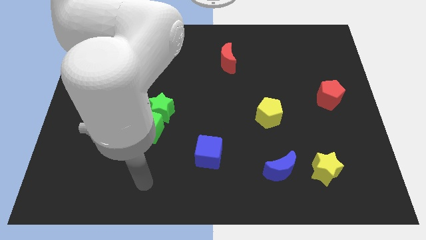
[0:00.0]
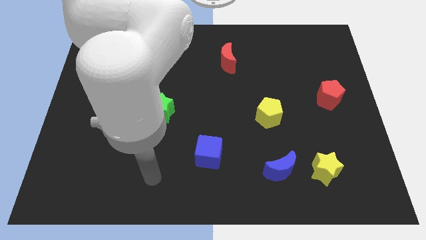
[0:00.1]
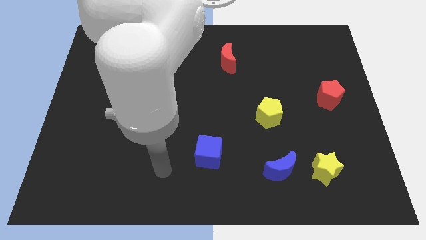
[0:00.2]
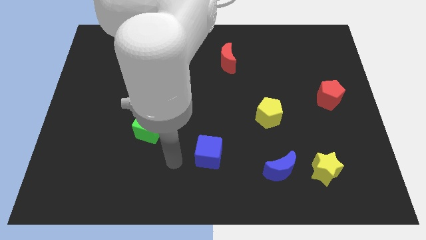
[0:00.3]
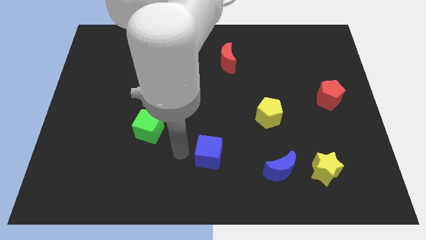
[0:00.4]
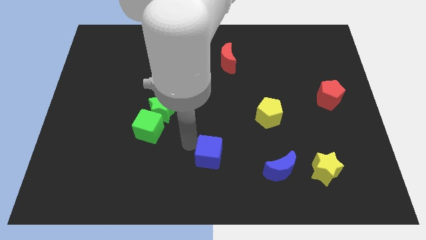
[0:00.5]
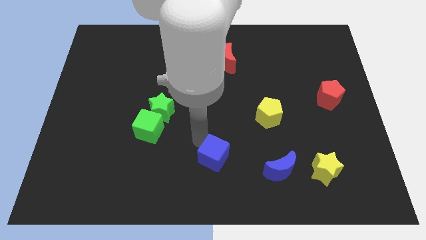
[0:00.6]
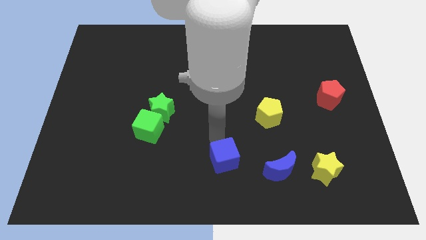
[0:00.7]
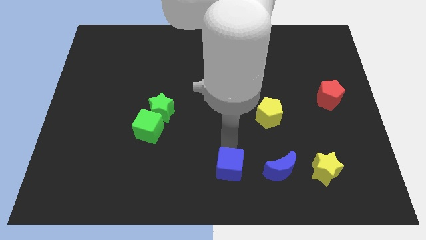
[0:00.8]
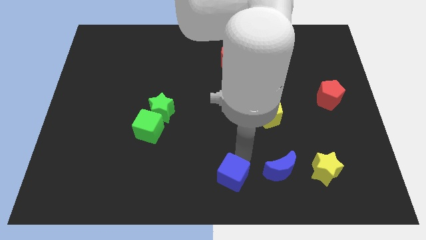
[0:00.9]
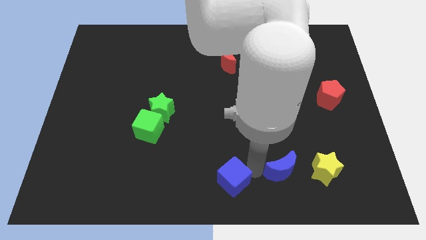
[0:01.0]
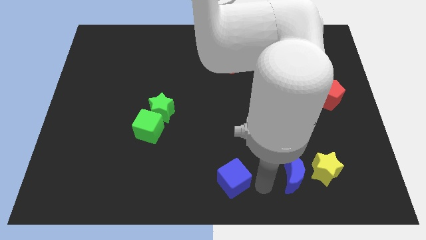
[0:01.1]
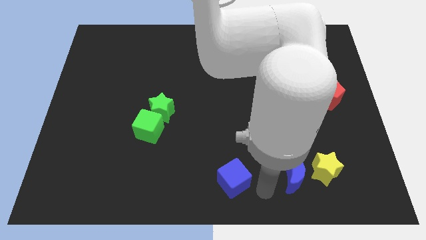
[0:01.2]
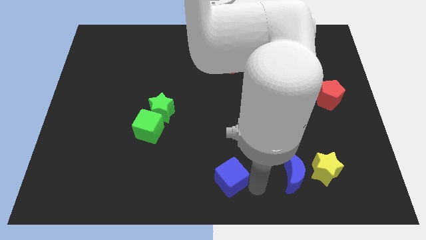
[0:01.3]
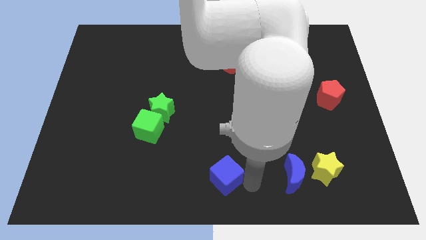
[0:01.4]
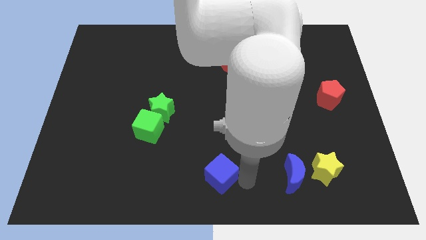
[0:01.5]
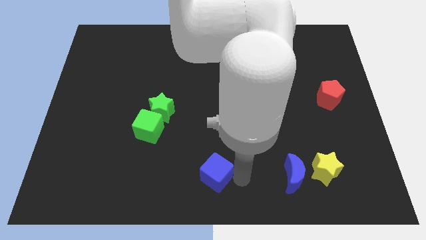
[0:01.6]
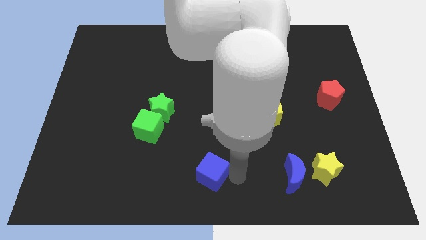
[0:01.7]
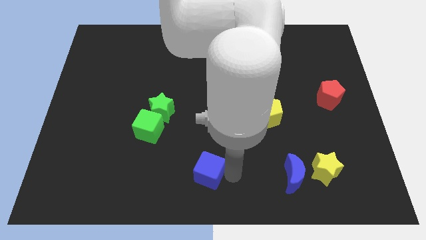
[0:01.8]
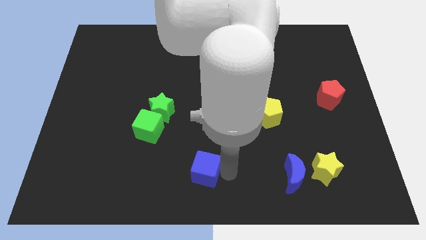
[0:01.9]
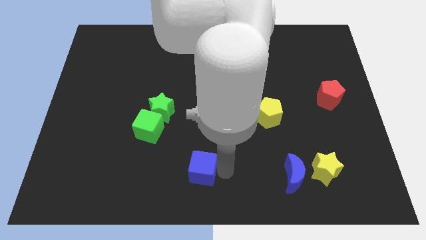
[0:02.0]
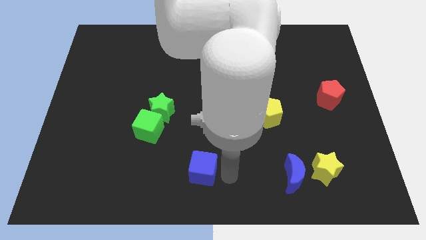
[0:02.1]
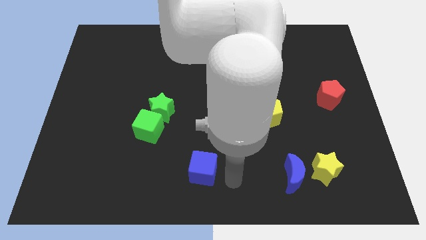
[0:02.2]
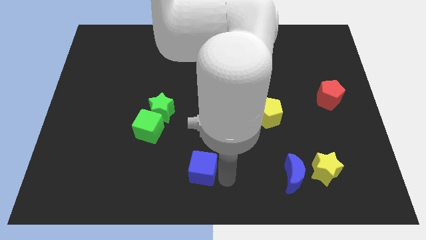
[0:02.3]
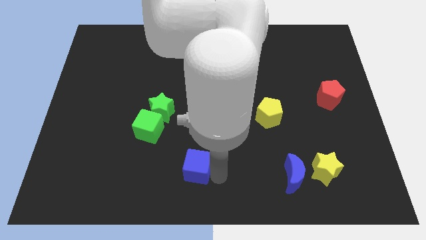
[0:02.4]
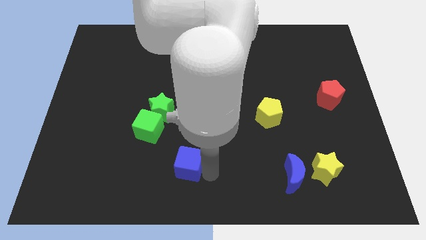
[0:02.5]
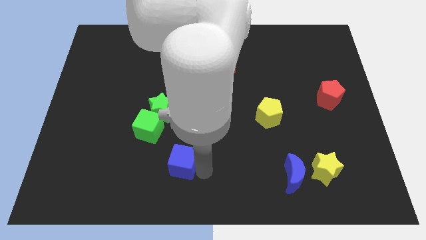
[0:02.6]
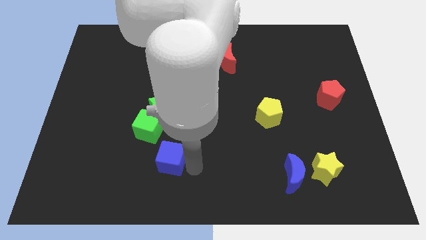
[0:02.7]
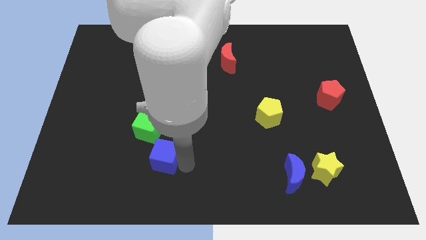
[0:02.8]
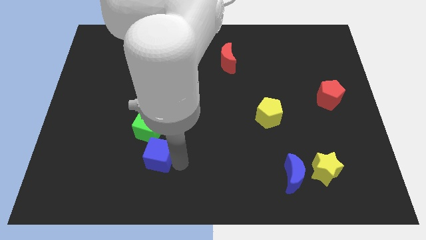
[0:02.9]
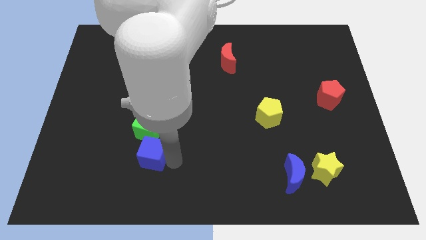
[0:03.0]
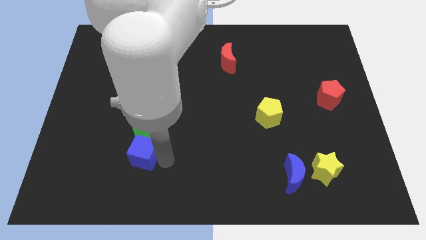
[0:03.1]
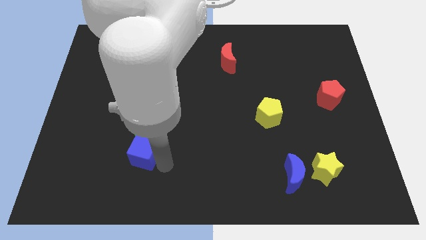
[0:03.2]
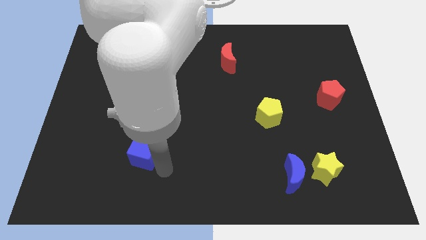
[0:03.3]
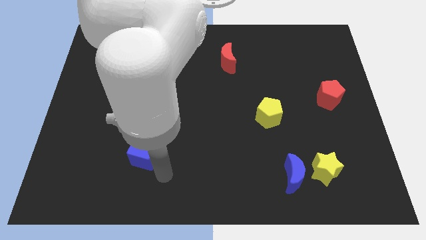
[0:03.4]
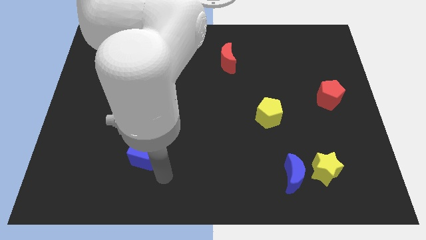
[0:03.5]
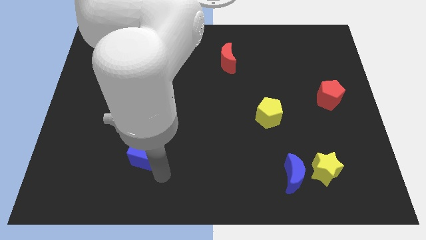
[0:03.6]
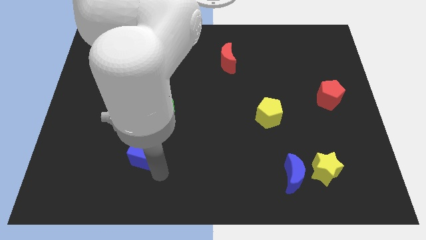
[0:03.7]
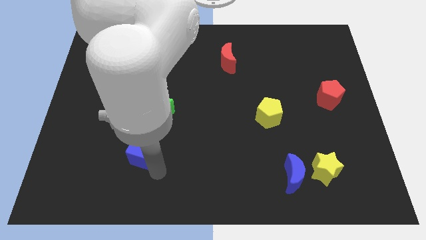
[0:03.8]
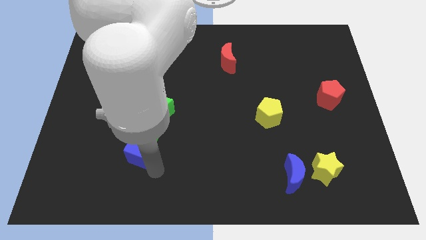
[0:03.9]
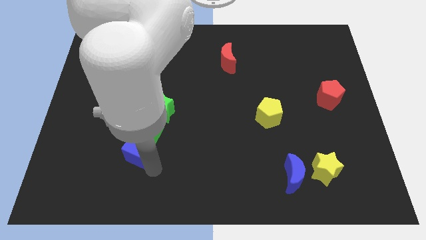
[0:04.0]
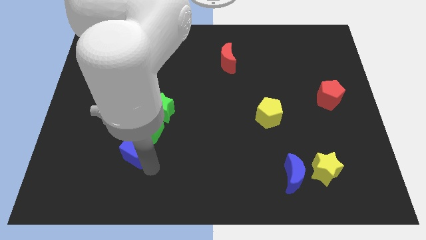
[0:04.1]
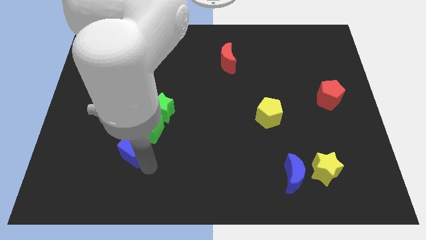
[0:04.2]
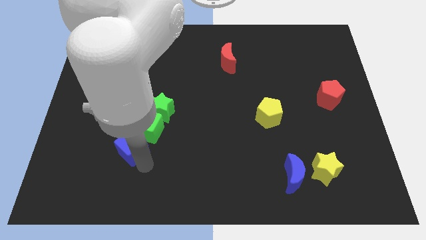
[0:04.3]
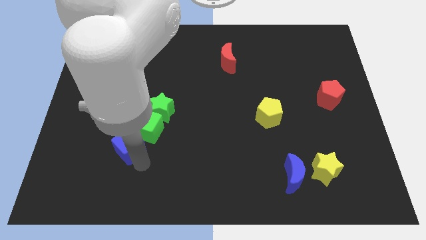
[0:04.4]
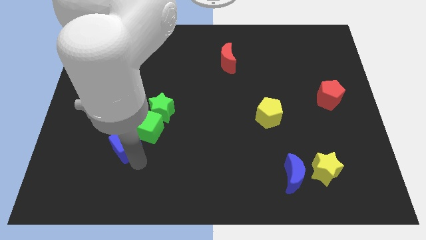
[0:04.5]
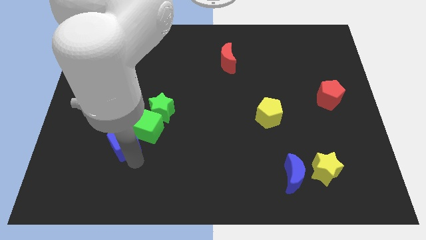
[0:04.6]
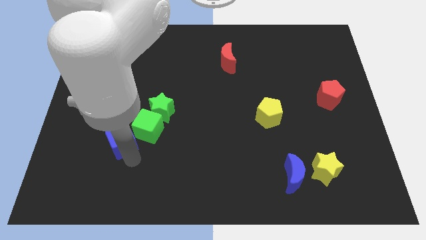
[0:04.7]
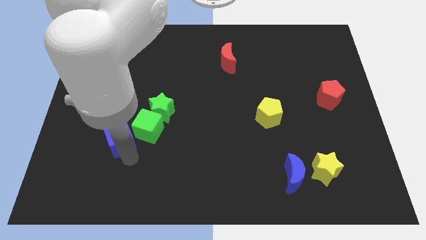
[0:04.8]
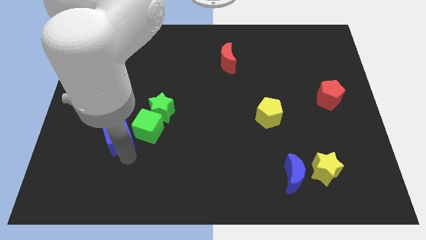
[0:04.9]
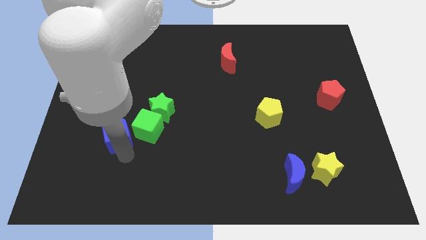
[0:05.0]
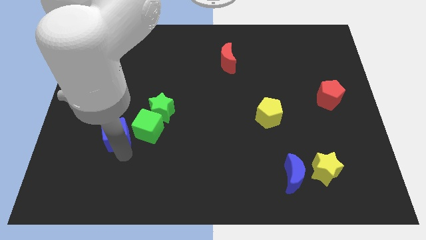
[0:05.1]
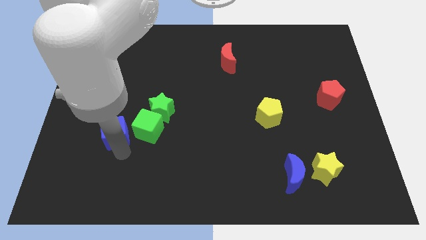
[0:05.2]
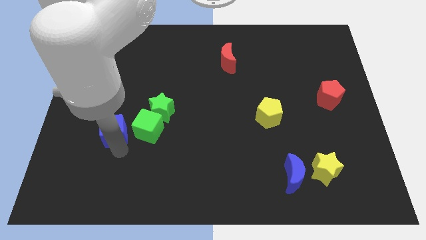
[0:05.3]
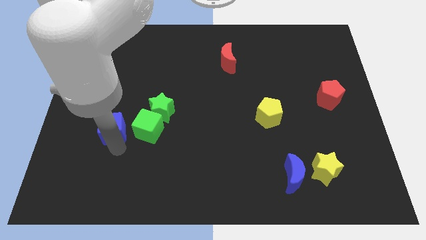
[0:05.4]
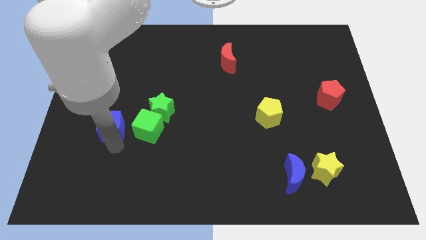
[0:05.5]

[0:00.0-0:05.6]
slide the blue cube left of the green star

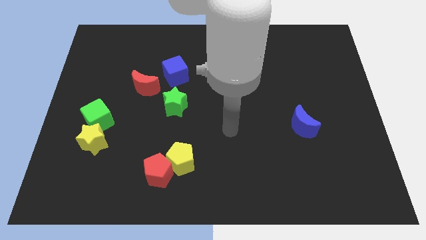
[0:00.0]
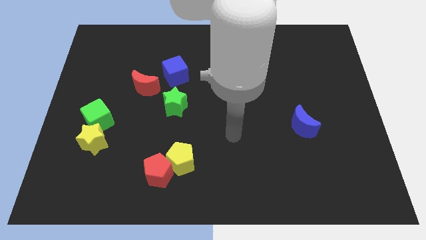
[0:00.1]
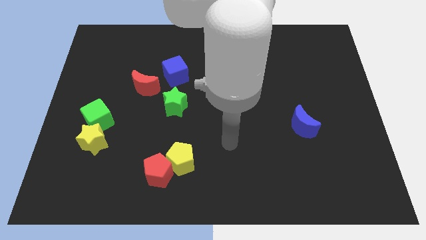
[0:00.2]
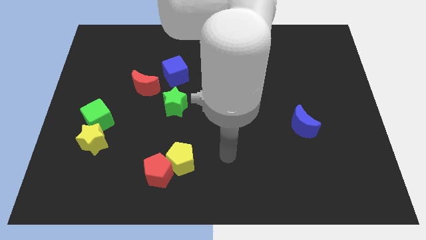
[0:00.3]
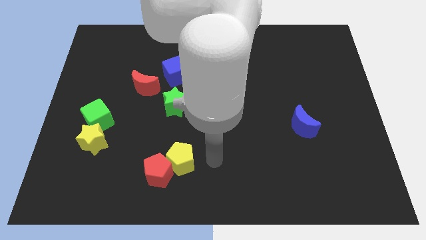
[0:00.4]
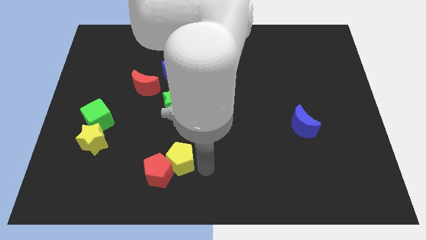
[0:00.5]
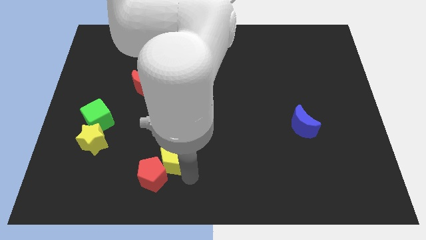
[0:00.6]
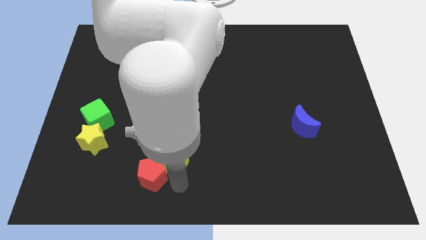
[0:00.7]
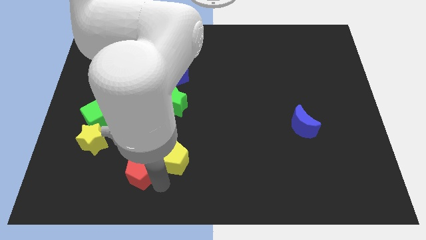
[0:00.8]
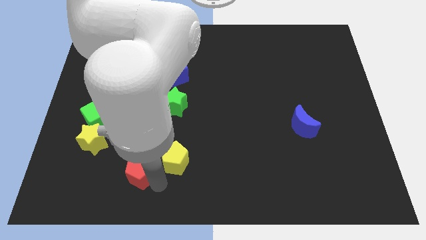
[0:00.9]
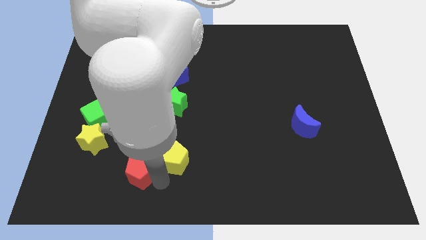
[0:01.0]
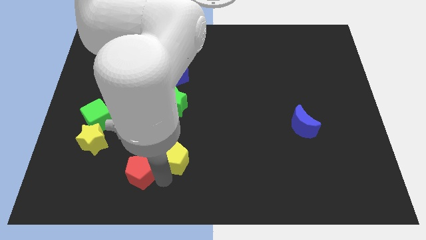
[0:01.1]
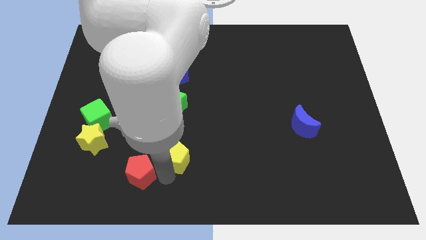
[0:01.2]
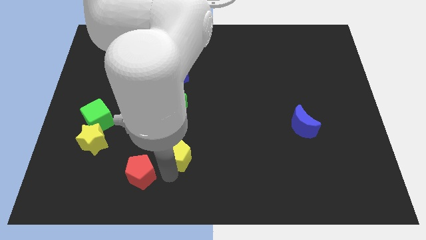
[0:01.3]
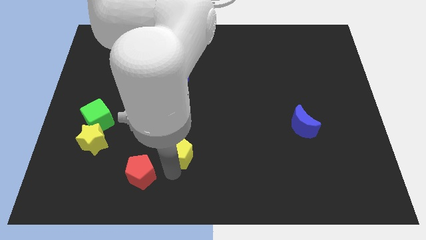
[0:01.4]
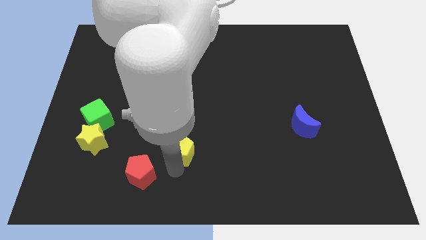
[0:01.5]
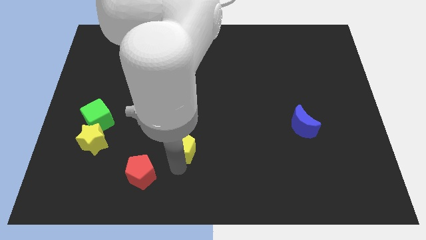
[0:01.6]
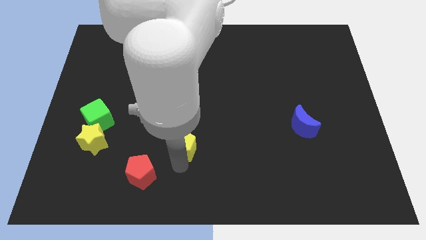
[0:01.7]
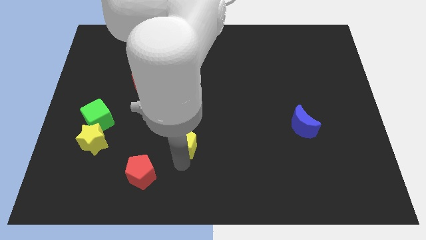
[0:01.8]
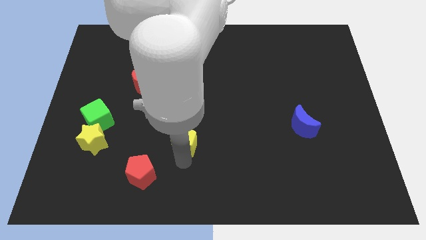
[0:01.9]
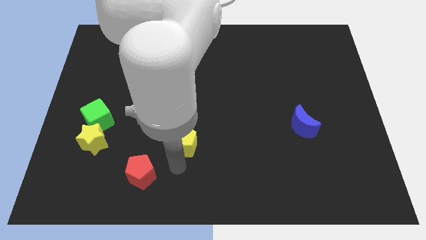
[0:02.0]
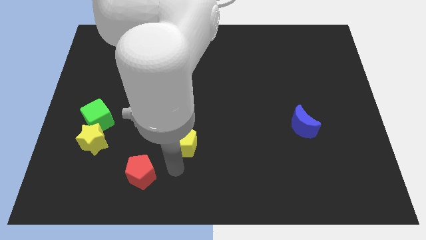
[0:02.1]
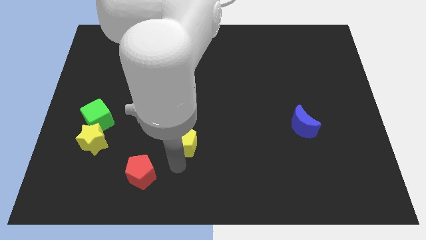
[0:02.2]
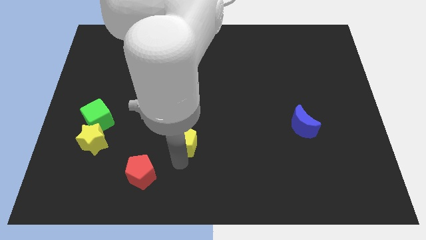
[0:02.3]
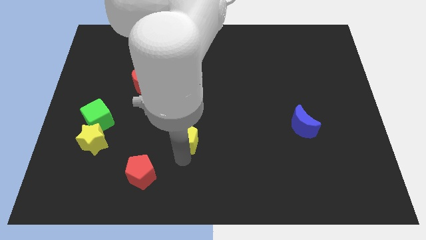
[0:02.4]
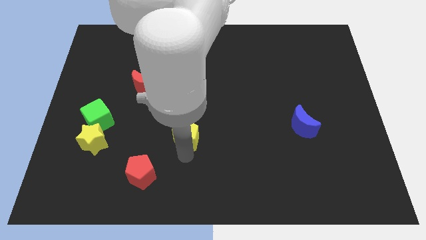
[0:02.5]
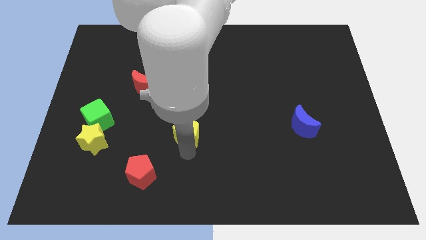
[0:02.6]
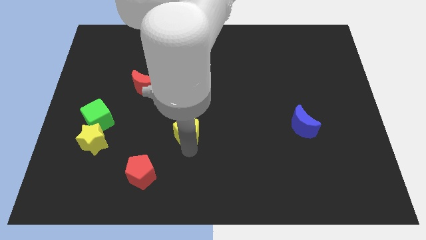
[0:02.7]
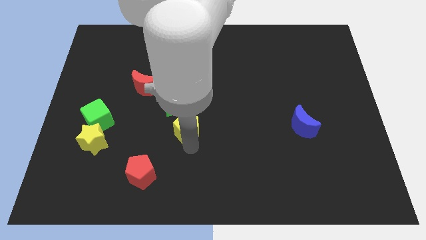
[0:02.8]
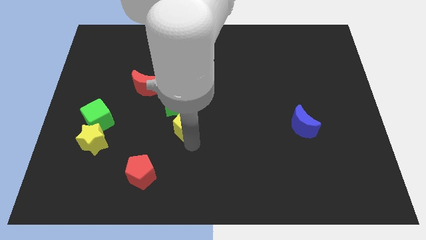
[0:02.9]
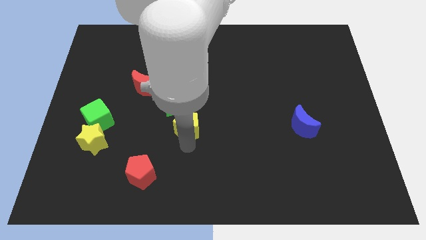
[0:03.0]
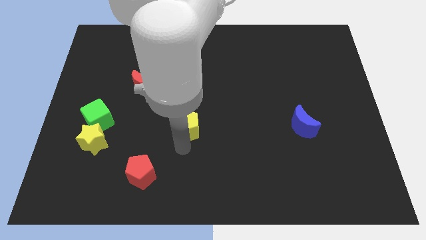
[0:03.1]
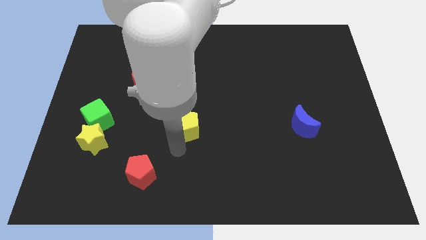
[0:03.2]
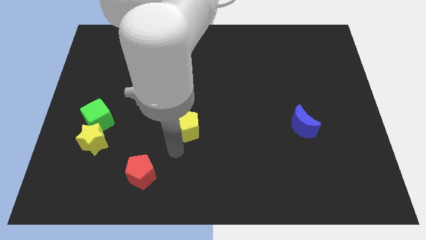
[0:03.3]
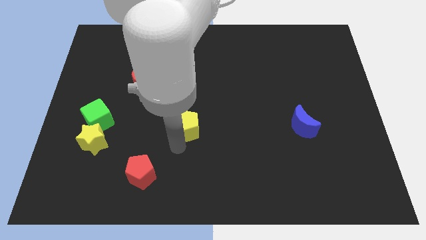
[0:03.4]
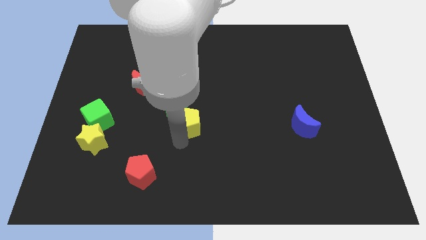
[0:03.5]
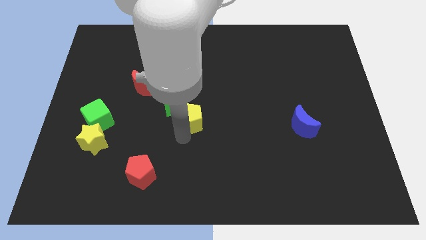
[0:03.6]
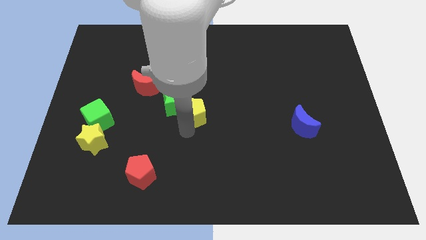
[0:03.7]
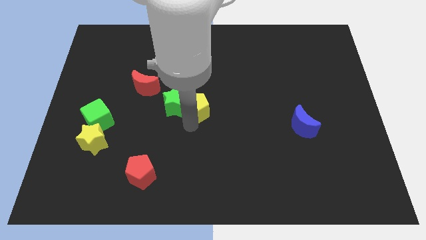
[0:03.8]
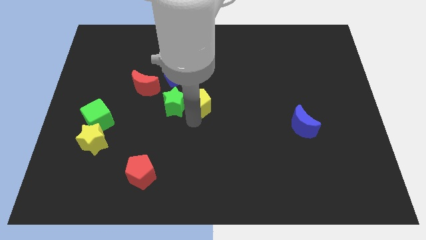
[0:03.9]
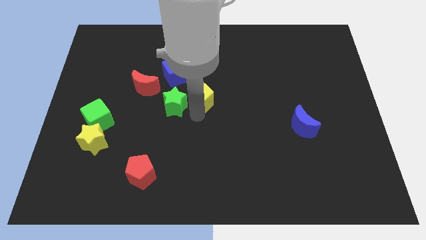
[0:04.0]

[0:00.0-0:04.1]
push the yellow pentagon to the right side of the red moon
